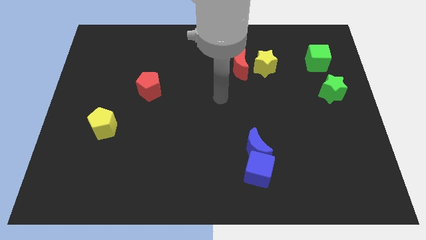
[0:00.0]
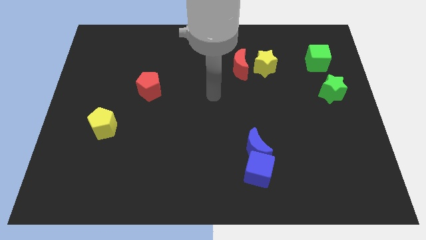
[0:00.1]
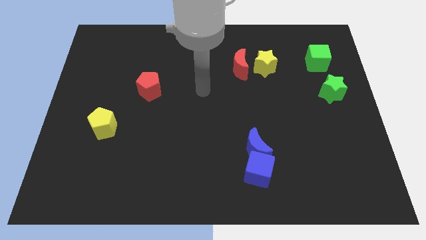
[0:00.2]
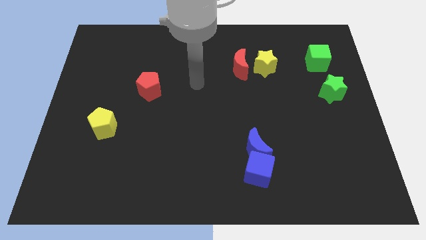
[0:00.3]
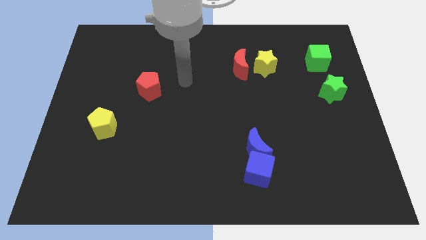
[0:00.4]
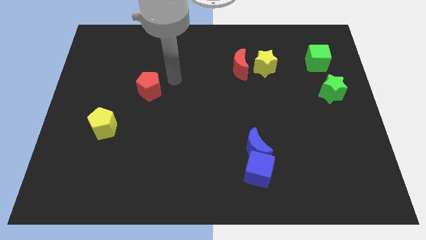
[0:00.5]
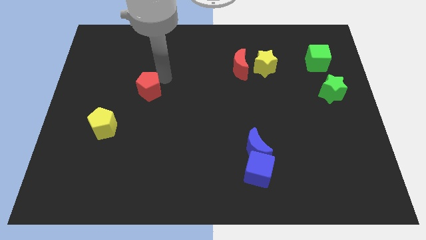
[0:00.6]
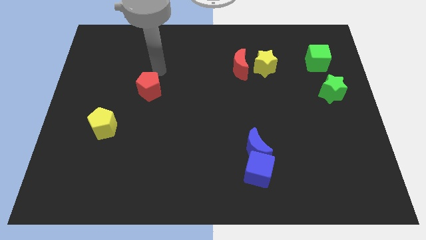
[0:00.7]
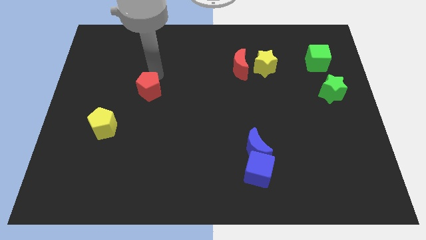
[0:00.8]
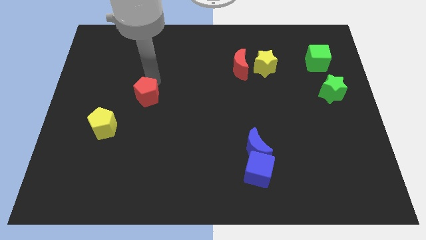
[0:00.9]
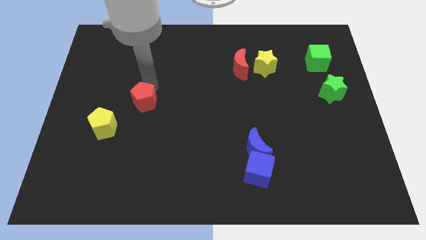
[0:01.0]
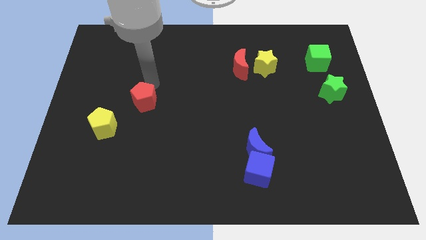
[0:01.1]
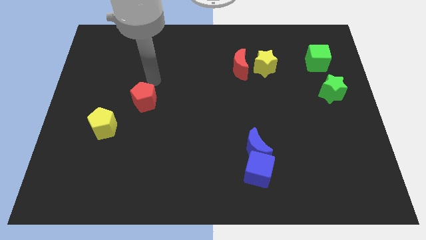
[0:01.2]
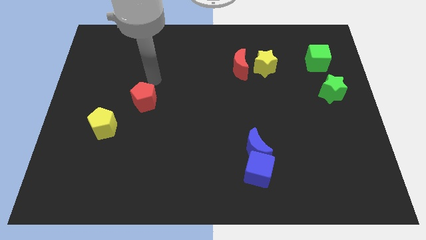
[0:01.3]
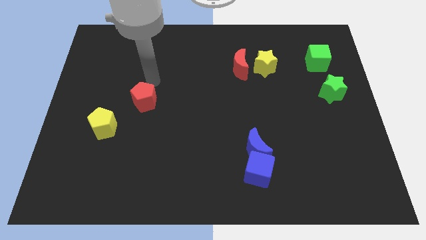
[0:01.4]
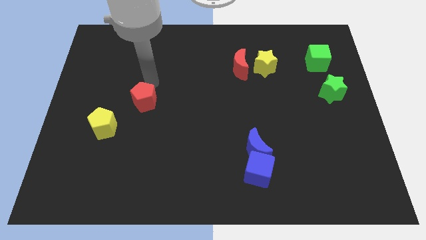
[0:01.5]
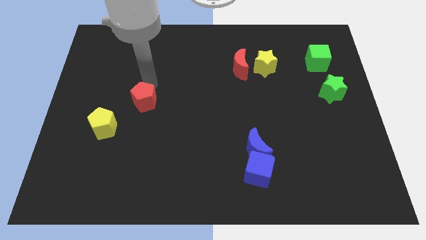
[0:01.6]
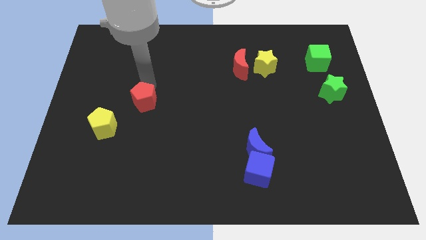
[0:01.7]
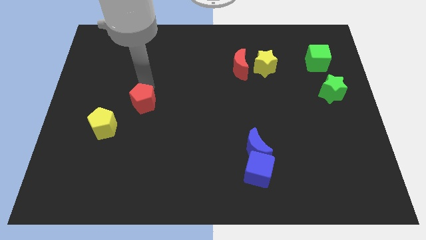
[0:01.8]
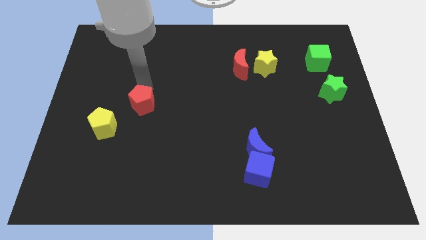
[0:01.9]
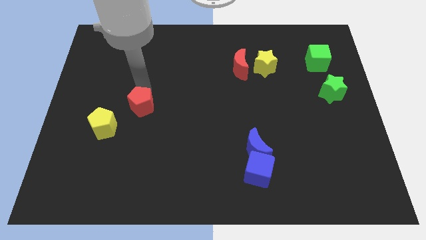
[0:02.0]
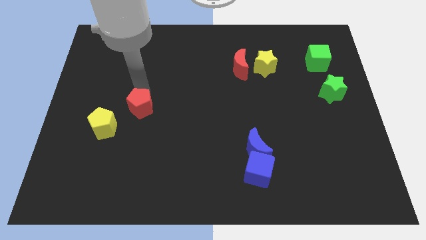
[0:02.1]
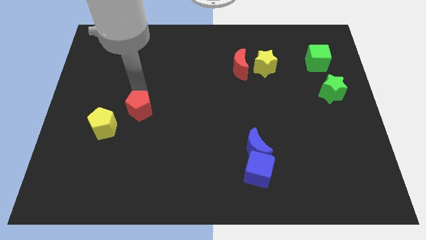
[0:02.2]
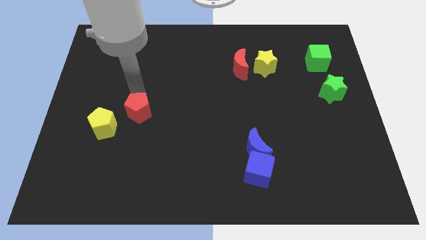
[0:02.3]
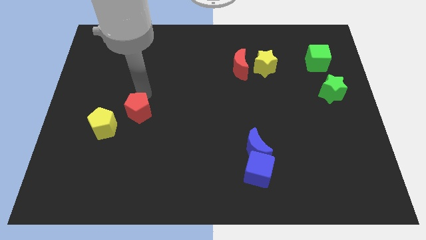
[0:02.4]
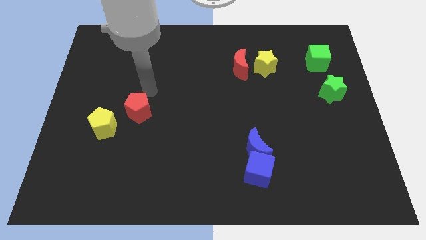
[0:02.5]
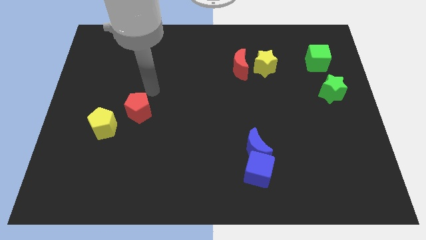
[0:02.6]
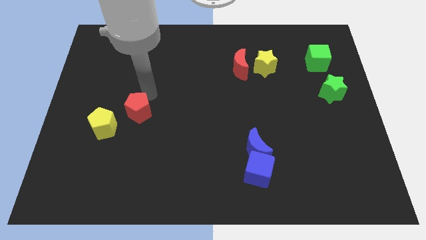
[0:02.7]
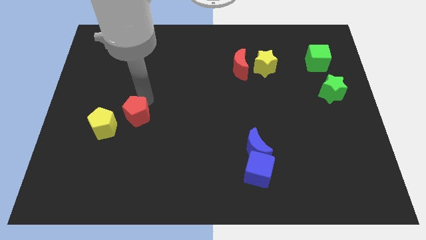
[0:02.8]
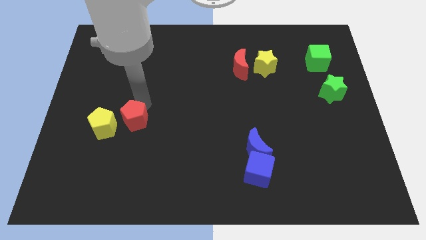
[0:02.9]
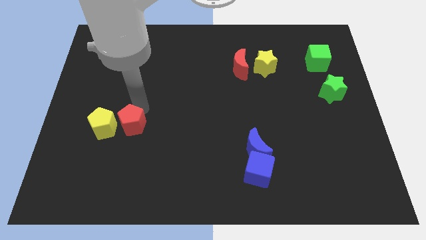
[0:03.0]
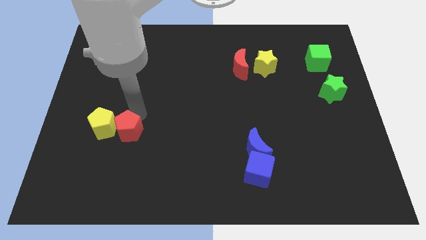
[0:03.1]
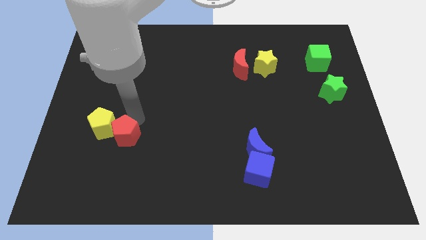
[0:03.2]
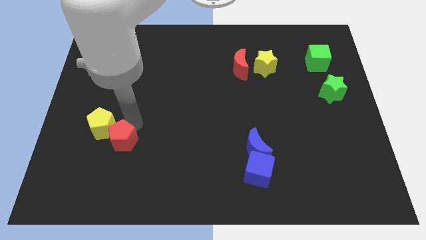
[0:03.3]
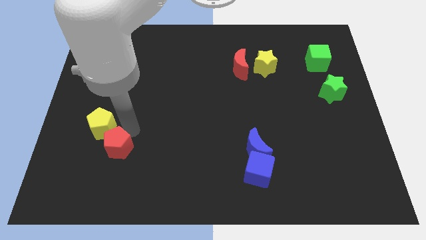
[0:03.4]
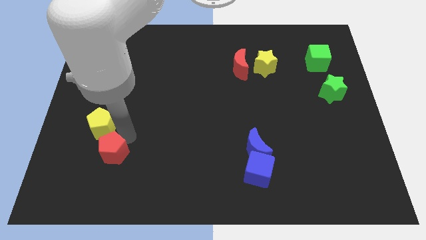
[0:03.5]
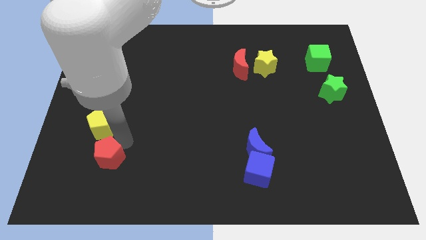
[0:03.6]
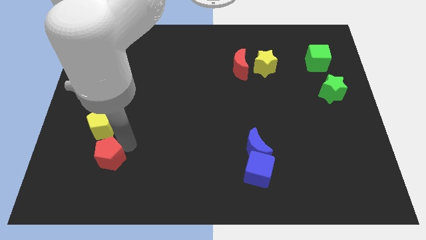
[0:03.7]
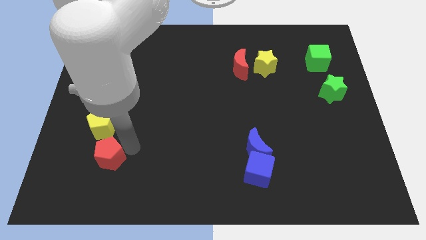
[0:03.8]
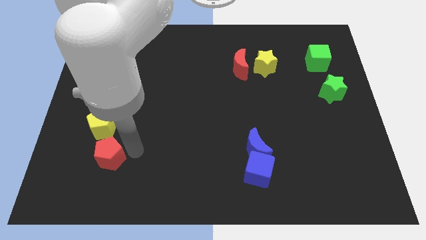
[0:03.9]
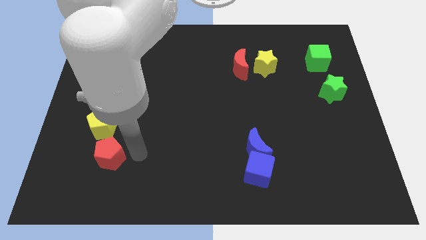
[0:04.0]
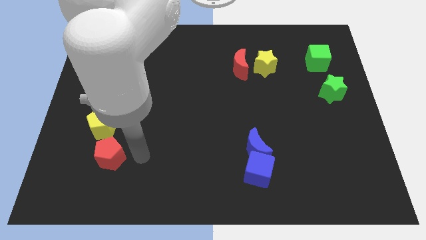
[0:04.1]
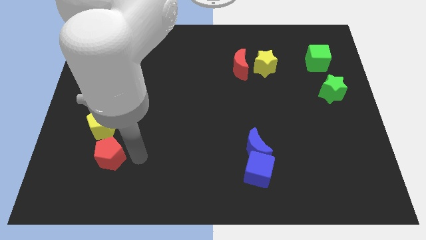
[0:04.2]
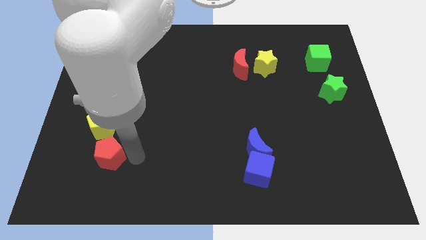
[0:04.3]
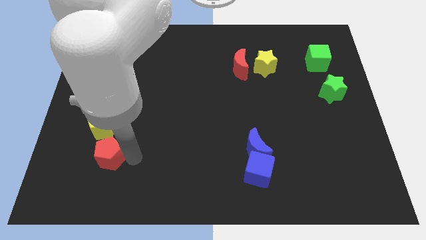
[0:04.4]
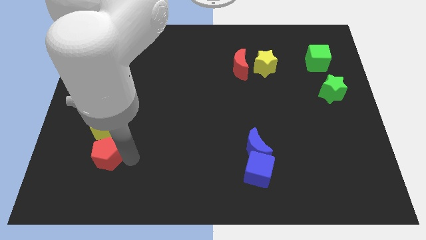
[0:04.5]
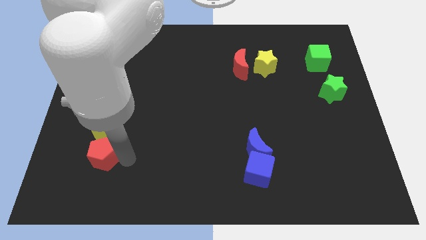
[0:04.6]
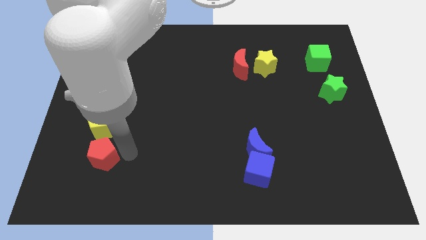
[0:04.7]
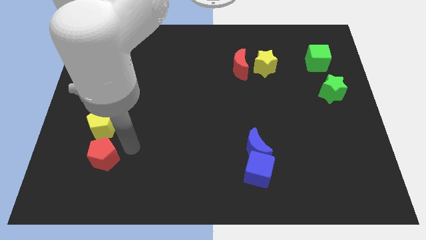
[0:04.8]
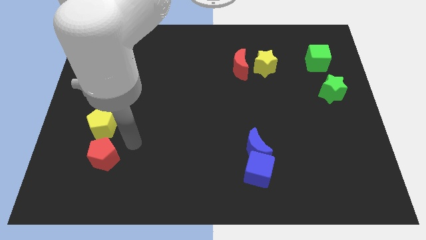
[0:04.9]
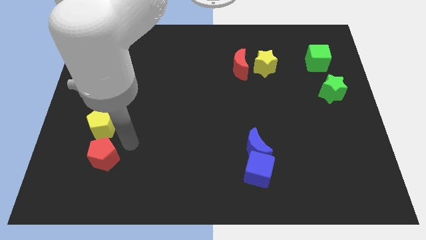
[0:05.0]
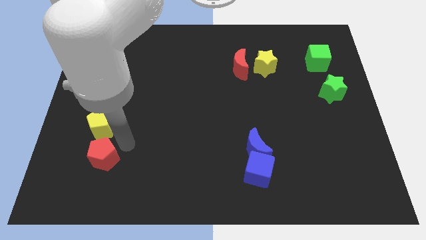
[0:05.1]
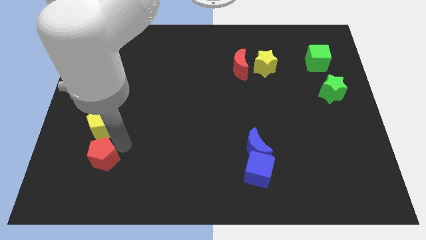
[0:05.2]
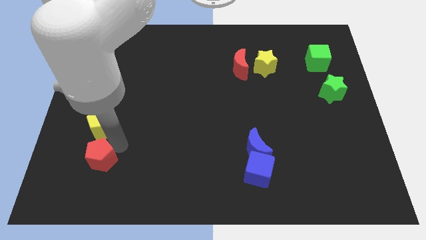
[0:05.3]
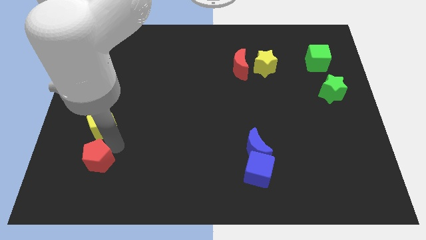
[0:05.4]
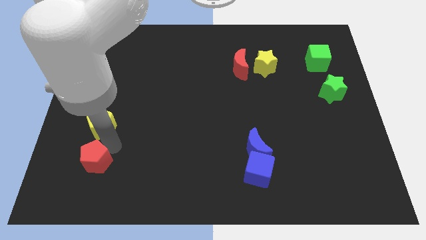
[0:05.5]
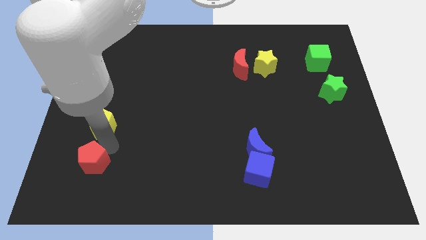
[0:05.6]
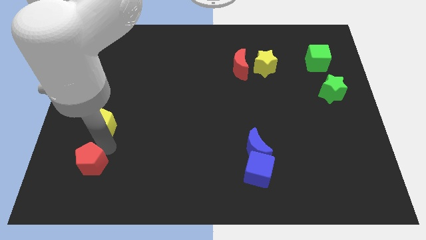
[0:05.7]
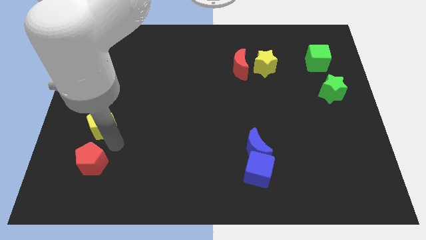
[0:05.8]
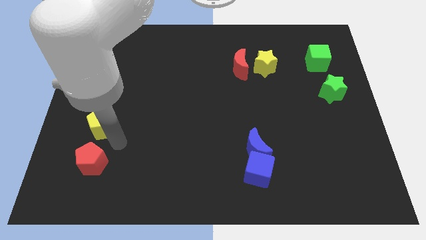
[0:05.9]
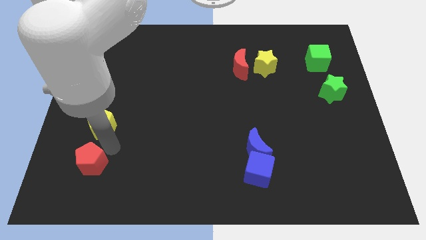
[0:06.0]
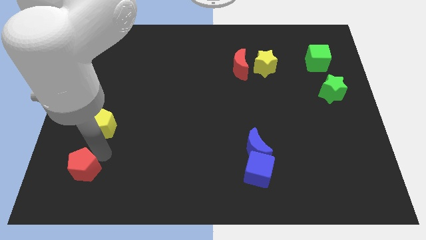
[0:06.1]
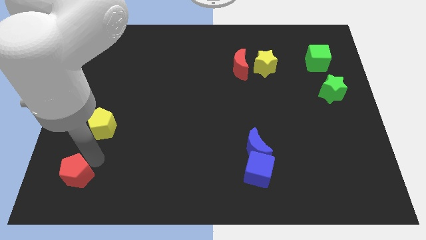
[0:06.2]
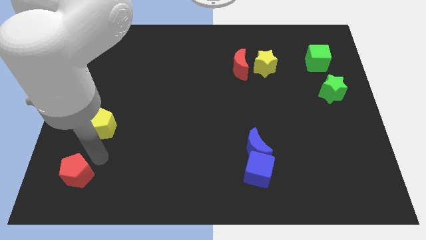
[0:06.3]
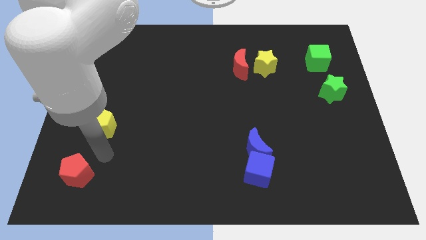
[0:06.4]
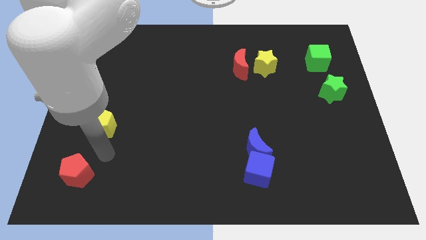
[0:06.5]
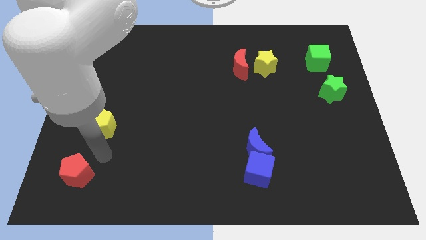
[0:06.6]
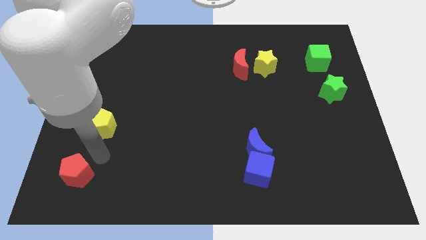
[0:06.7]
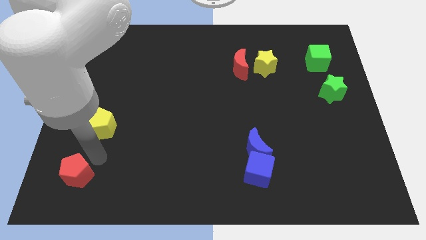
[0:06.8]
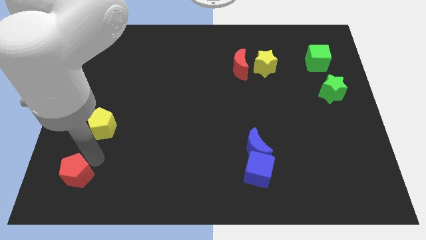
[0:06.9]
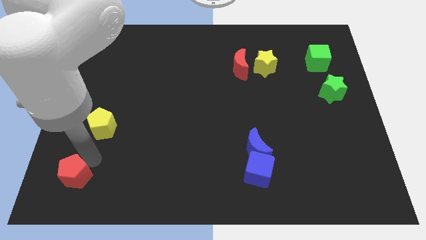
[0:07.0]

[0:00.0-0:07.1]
slide the red pentagon to the bottom left

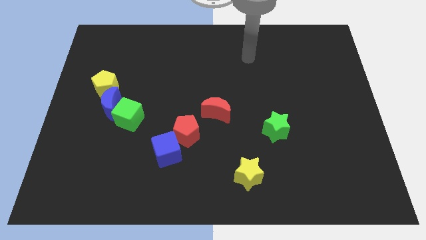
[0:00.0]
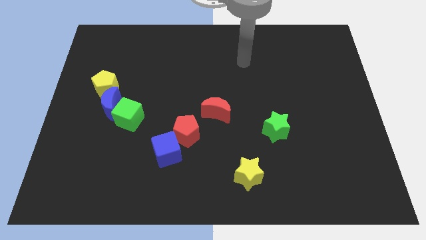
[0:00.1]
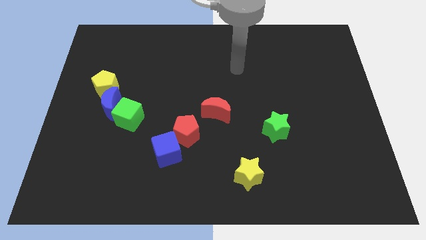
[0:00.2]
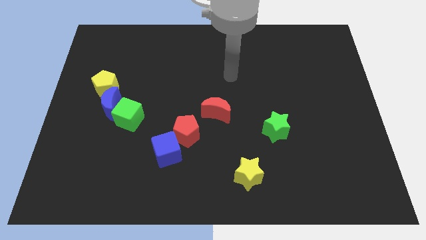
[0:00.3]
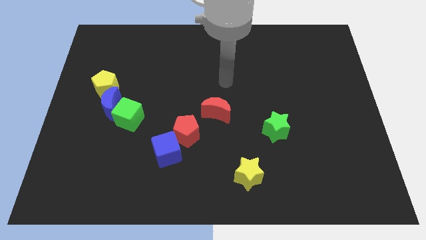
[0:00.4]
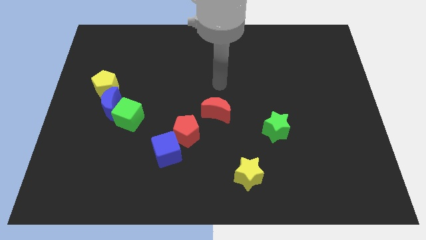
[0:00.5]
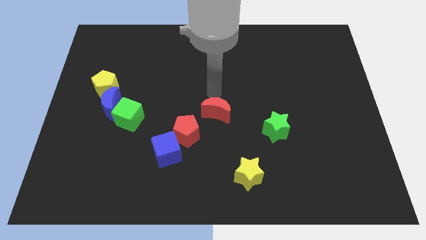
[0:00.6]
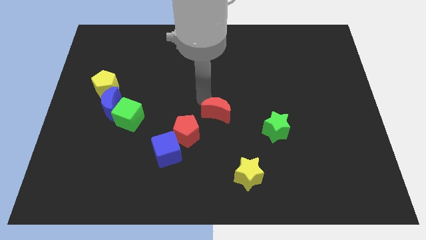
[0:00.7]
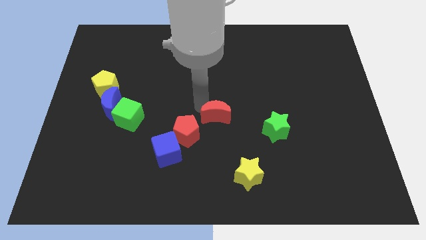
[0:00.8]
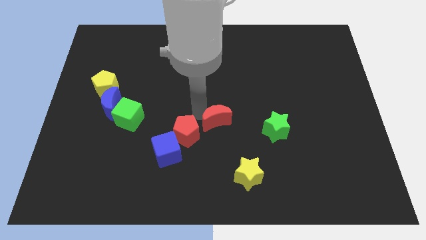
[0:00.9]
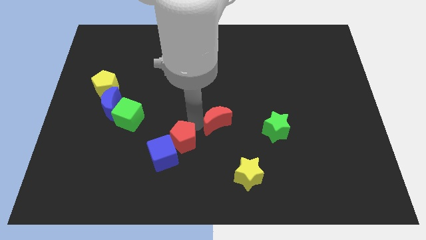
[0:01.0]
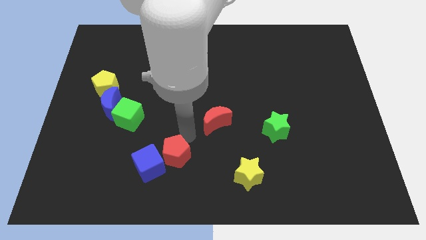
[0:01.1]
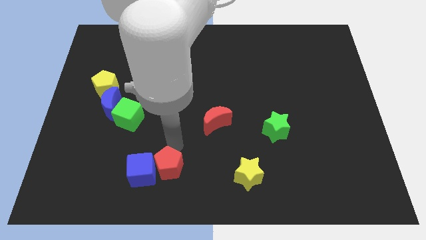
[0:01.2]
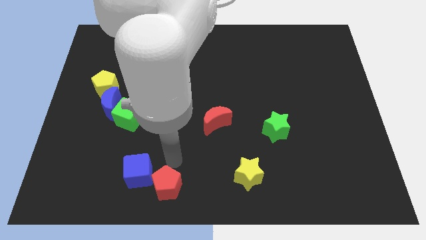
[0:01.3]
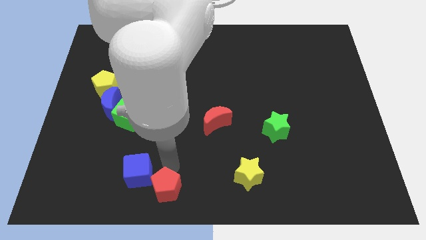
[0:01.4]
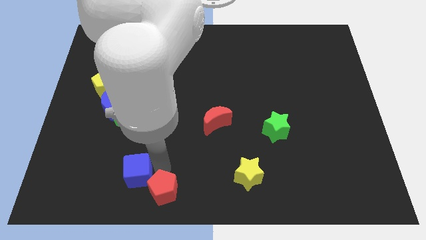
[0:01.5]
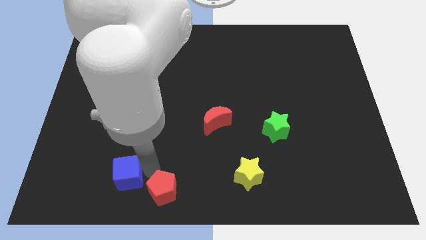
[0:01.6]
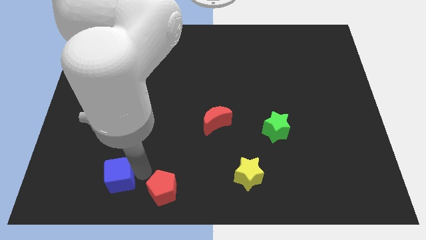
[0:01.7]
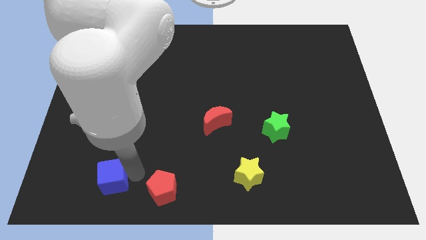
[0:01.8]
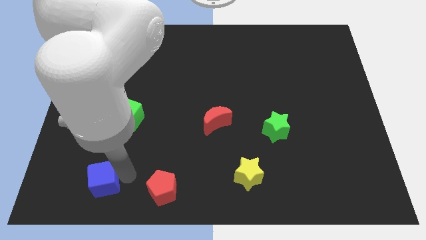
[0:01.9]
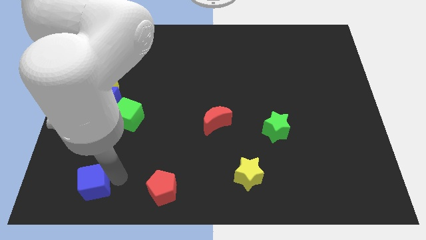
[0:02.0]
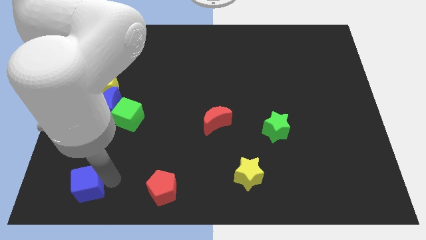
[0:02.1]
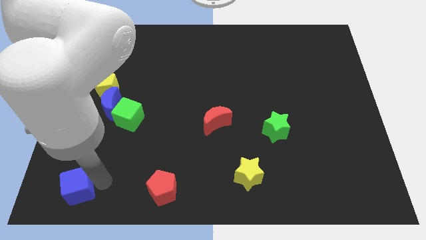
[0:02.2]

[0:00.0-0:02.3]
move the blue cube to the lower left corner
